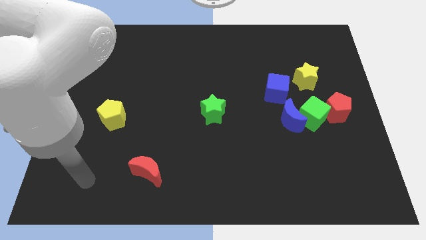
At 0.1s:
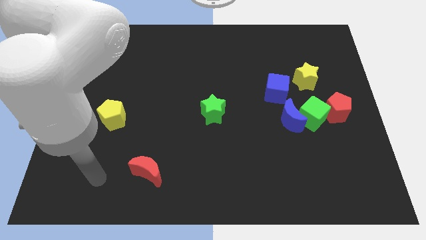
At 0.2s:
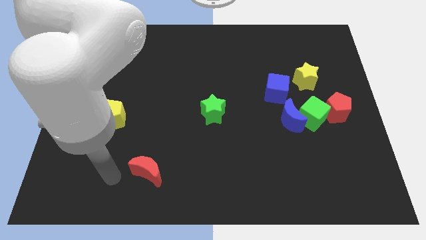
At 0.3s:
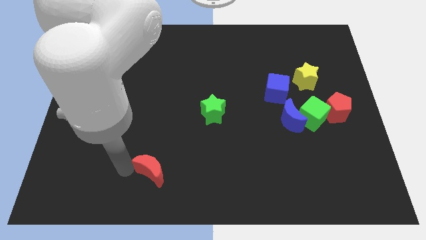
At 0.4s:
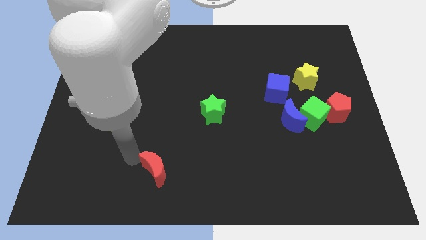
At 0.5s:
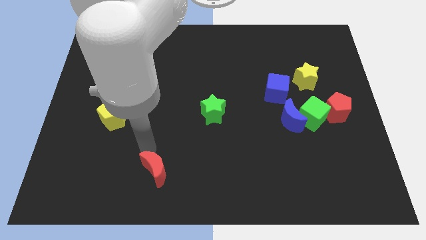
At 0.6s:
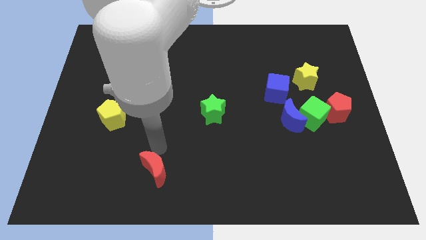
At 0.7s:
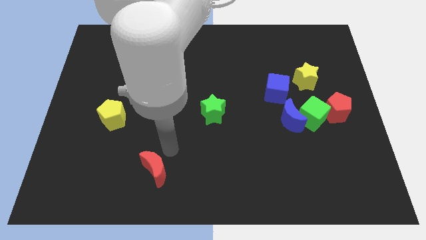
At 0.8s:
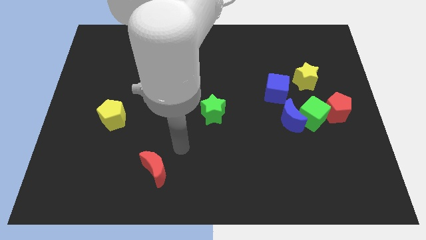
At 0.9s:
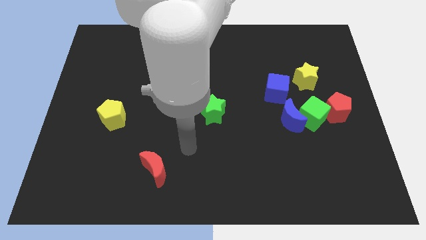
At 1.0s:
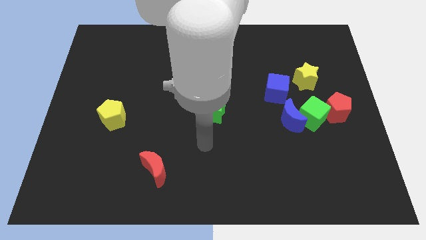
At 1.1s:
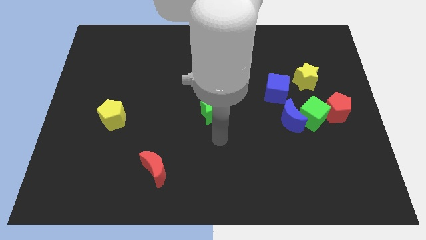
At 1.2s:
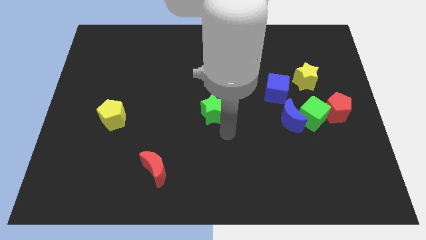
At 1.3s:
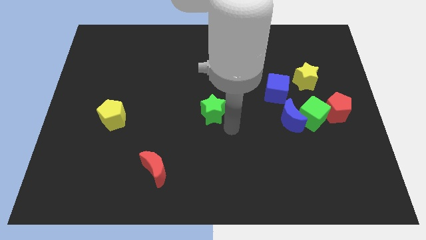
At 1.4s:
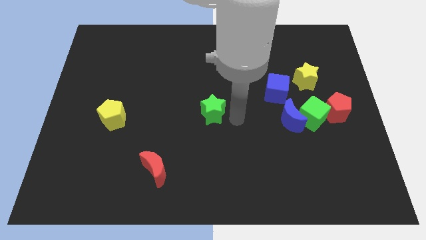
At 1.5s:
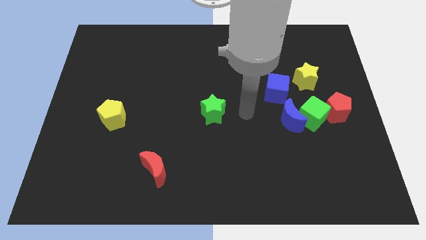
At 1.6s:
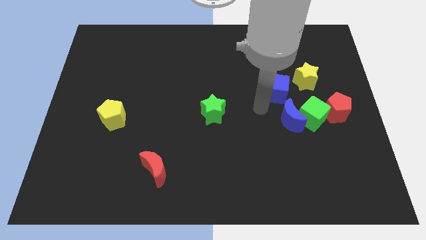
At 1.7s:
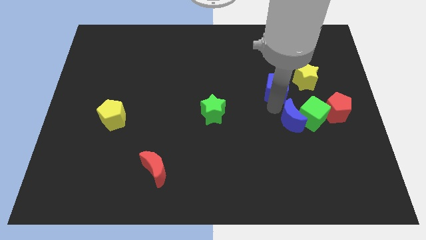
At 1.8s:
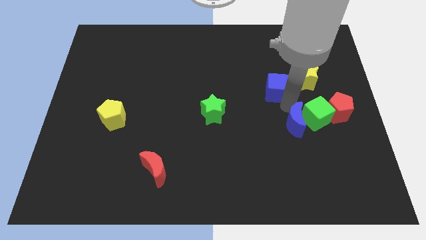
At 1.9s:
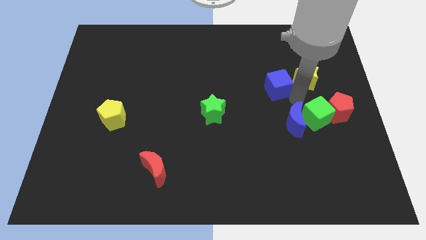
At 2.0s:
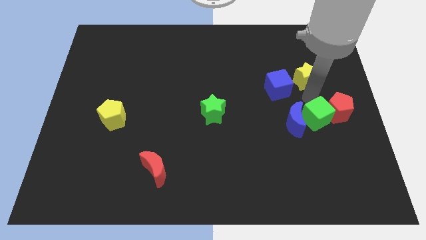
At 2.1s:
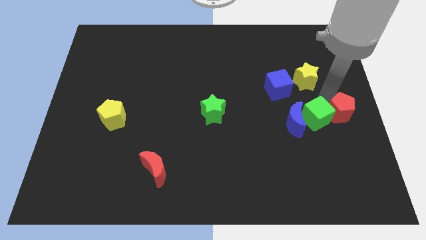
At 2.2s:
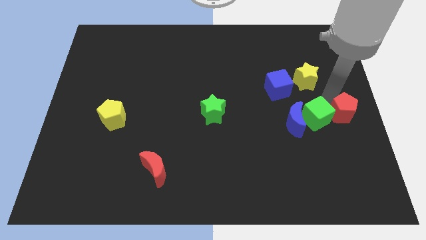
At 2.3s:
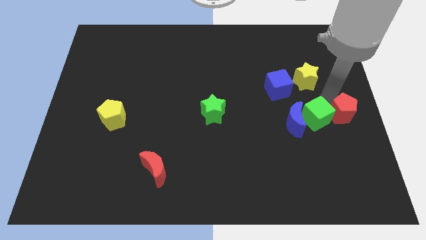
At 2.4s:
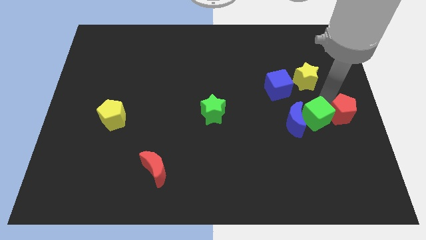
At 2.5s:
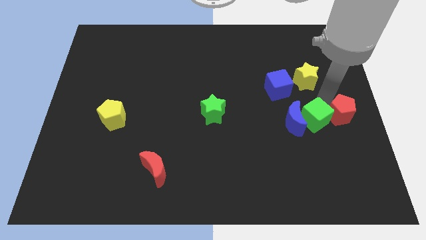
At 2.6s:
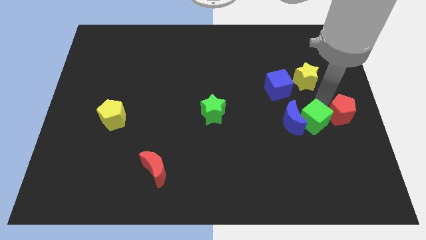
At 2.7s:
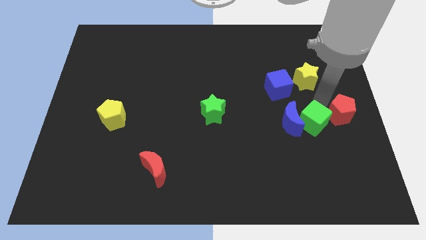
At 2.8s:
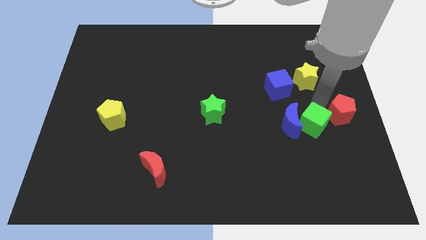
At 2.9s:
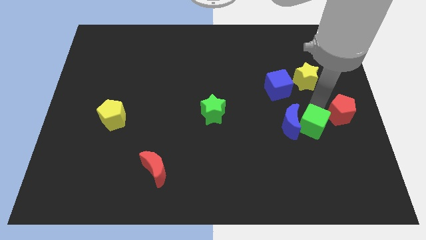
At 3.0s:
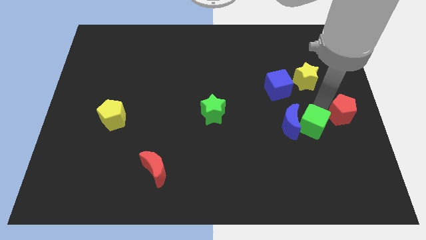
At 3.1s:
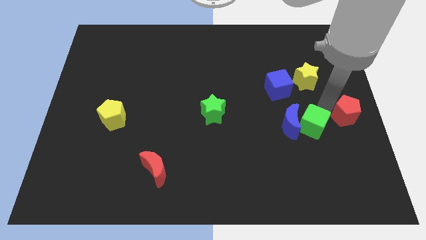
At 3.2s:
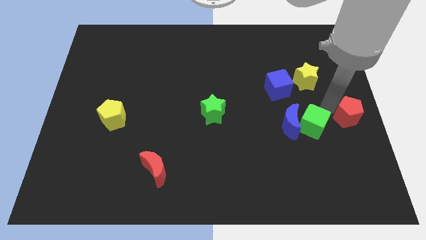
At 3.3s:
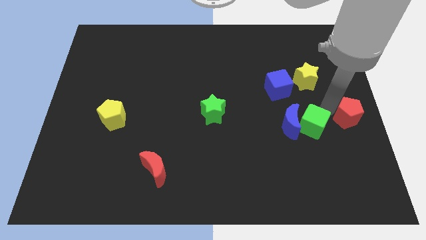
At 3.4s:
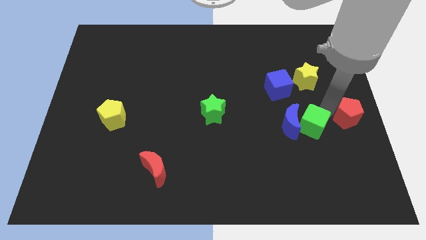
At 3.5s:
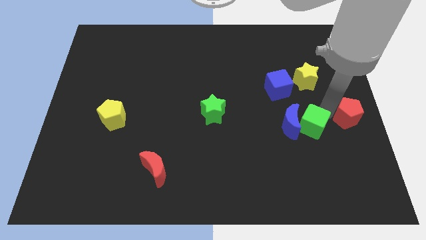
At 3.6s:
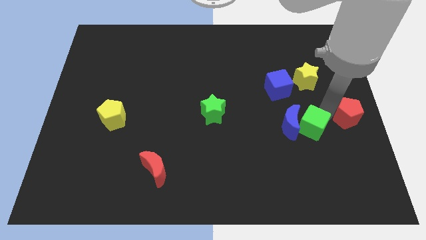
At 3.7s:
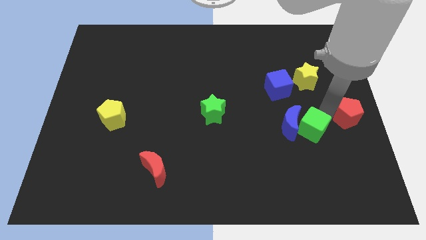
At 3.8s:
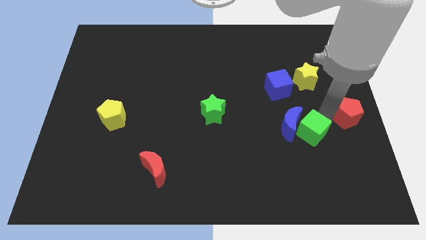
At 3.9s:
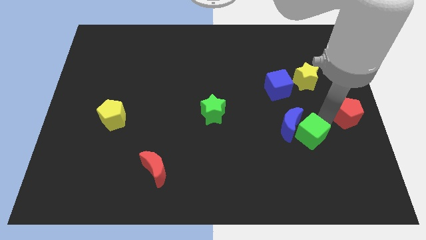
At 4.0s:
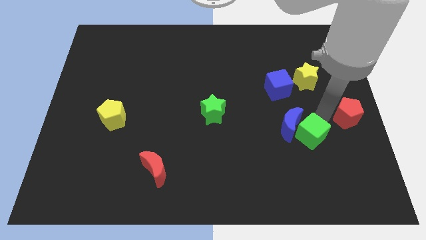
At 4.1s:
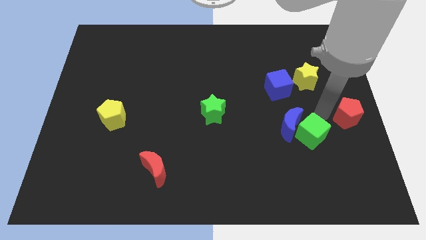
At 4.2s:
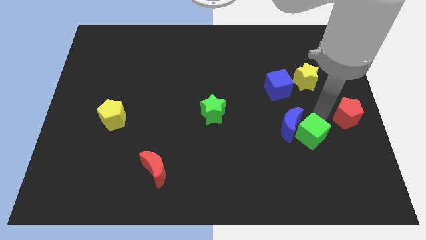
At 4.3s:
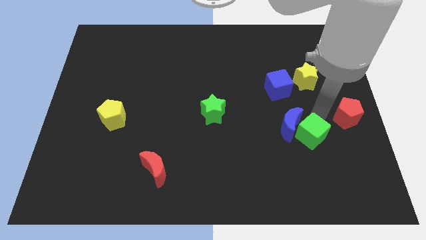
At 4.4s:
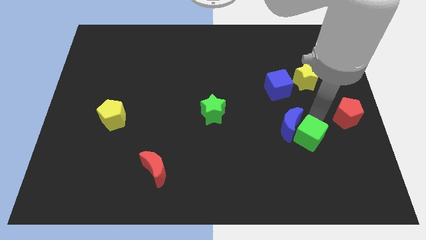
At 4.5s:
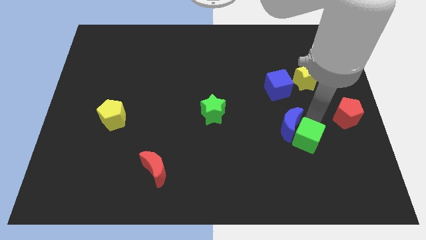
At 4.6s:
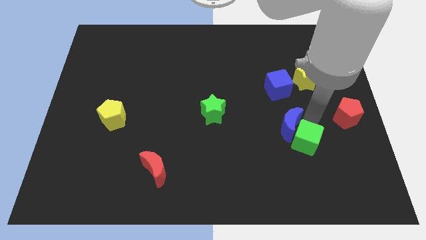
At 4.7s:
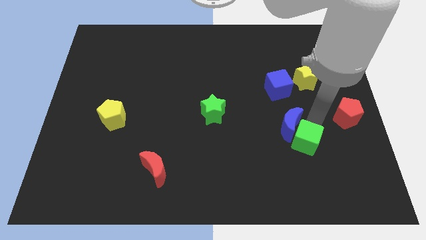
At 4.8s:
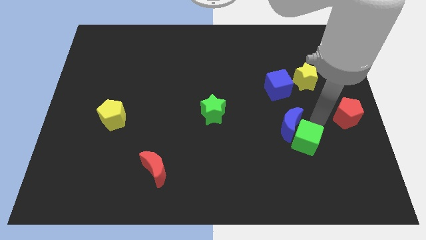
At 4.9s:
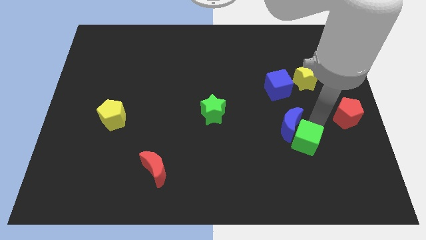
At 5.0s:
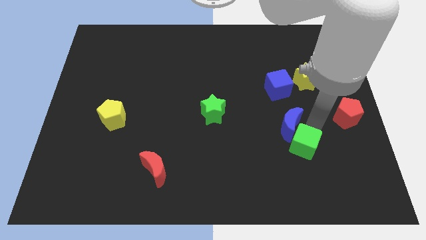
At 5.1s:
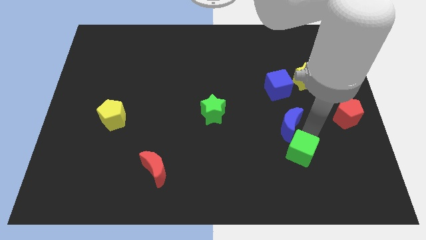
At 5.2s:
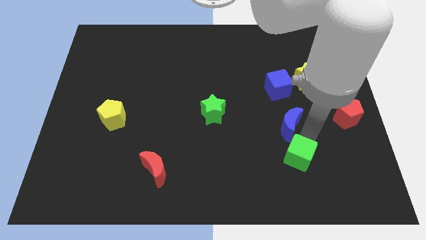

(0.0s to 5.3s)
move the green cube away from the blue moon and red pentagon

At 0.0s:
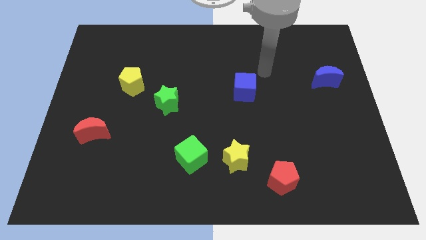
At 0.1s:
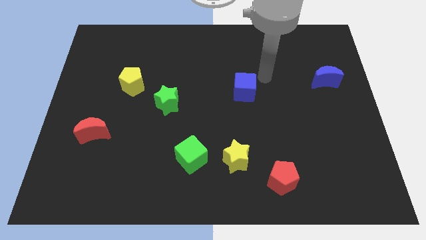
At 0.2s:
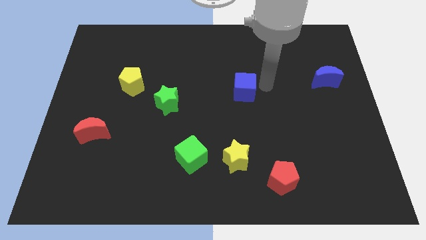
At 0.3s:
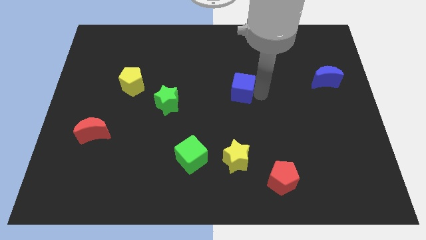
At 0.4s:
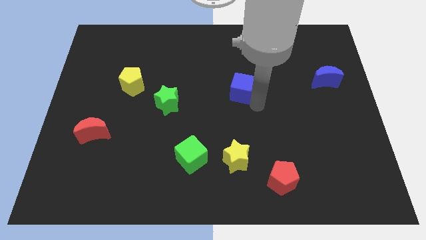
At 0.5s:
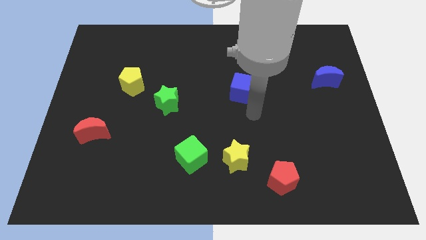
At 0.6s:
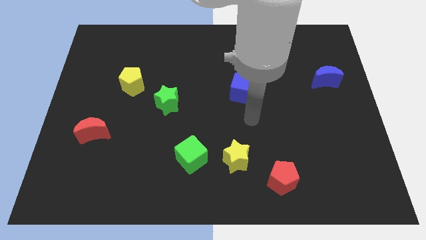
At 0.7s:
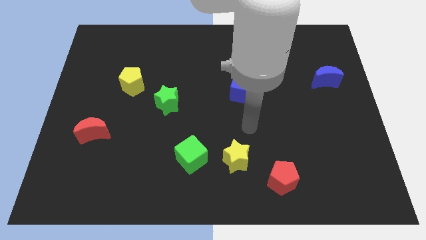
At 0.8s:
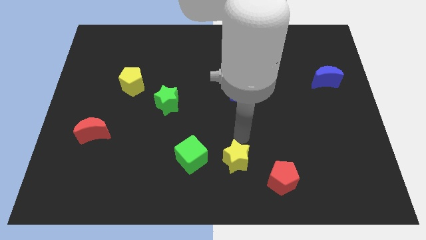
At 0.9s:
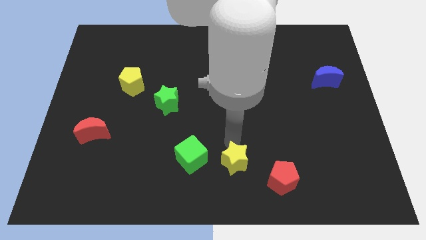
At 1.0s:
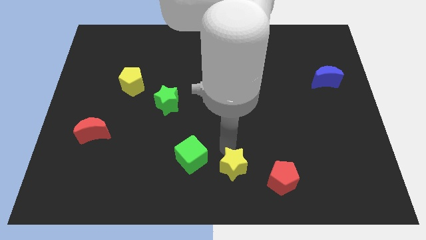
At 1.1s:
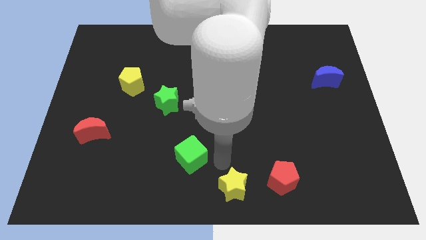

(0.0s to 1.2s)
move the green cube away from the yellow star

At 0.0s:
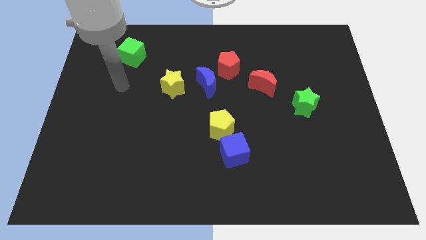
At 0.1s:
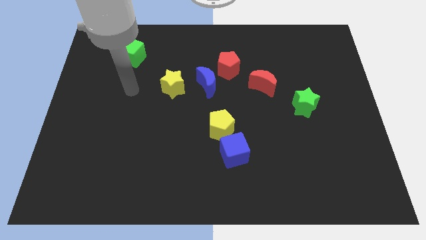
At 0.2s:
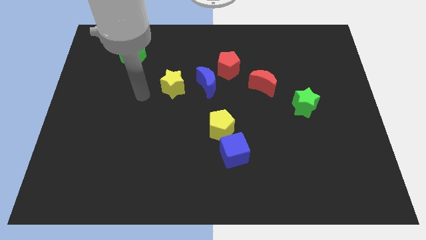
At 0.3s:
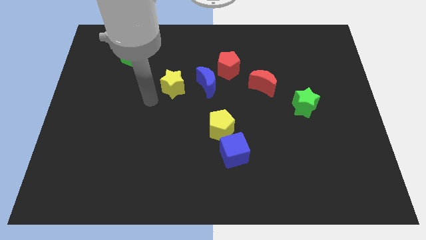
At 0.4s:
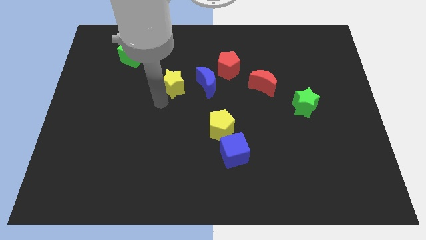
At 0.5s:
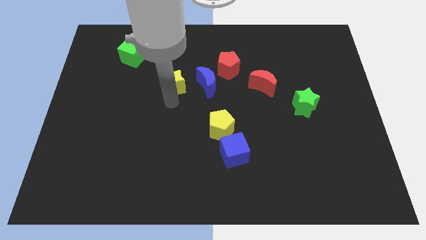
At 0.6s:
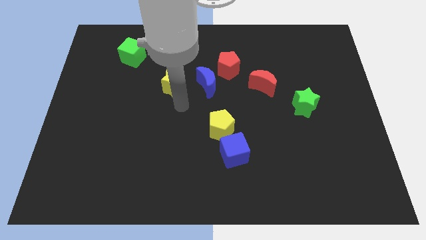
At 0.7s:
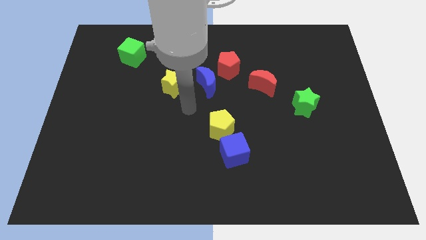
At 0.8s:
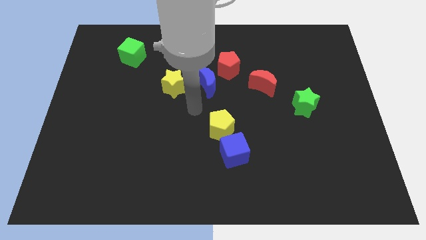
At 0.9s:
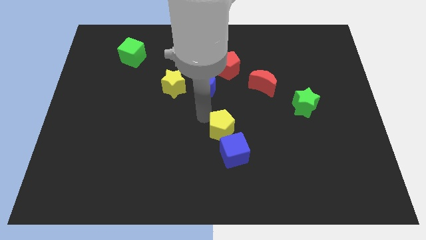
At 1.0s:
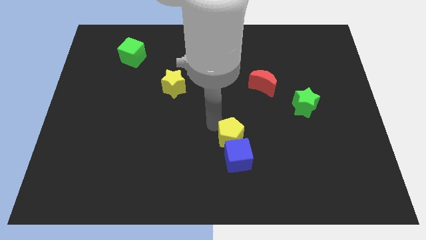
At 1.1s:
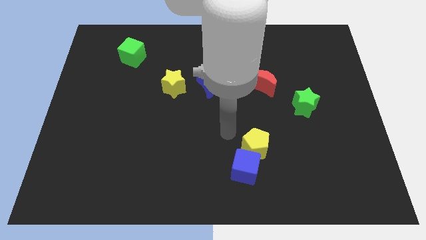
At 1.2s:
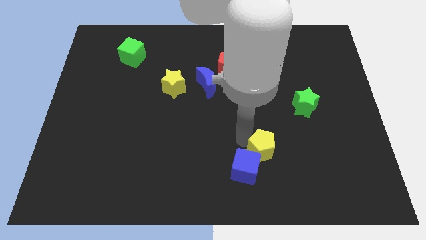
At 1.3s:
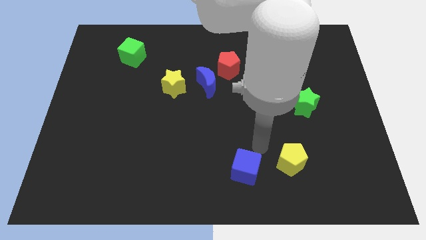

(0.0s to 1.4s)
pull the blue cube apart from the yellow pentagon

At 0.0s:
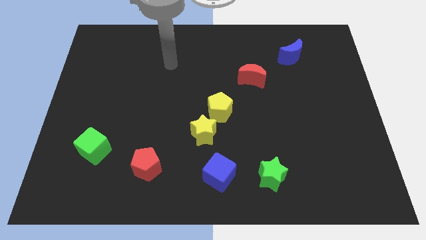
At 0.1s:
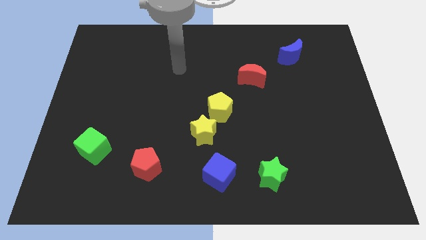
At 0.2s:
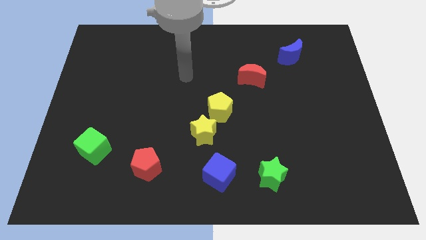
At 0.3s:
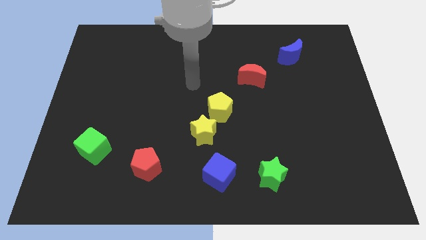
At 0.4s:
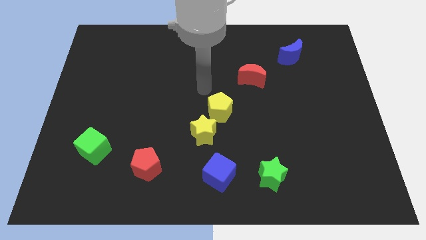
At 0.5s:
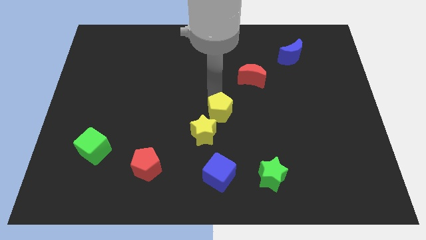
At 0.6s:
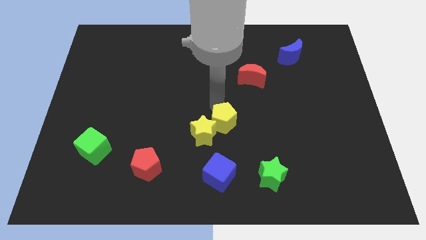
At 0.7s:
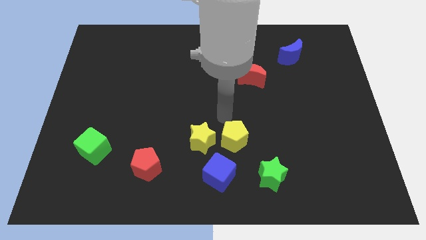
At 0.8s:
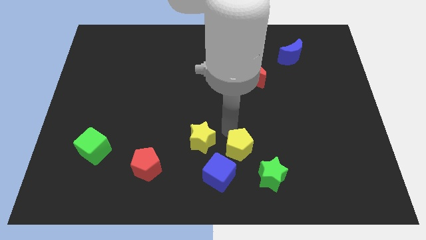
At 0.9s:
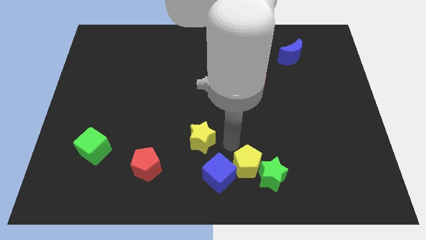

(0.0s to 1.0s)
pull the yellow star apart from the yellow pentagon

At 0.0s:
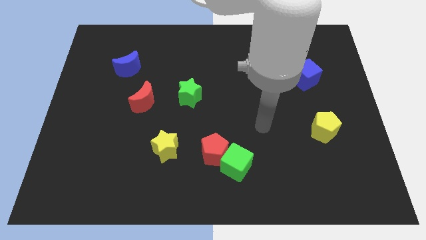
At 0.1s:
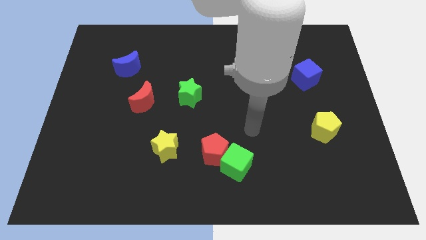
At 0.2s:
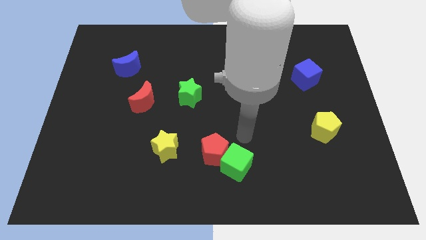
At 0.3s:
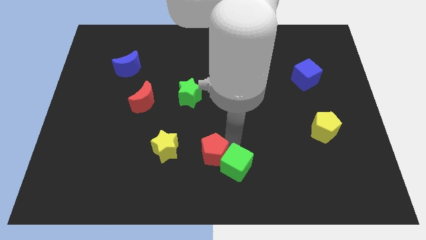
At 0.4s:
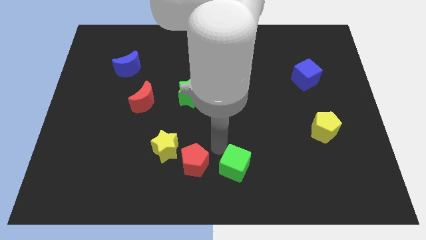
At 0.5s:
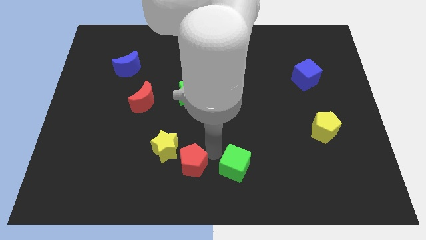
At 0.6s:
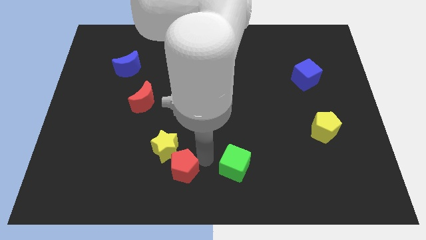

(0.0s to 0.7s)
pull the green cube apart from the red pentagon
